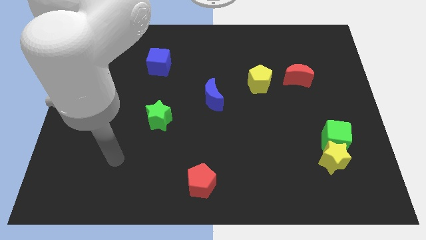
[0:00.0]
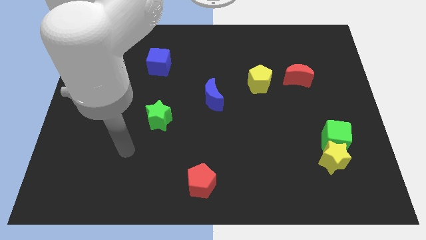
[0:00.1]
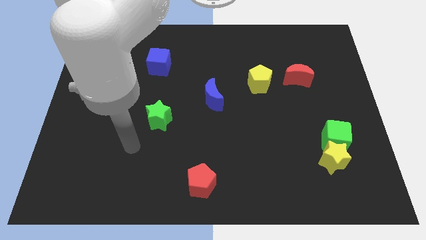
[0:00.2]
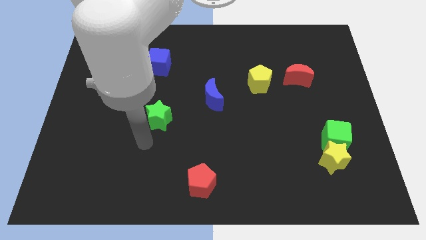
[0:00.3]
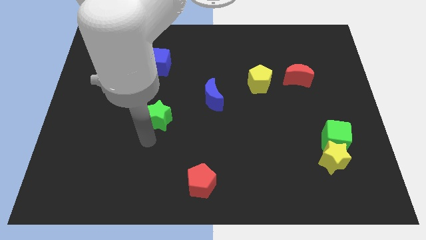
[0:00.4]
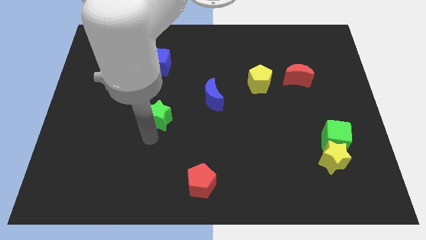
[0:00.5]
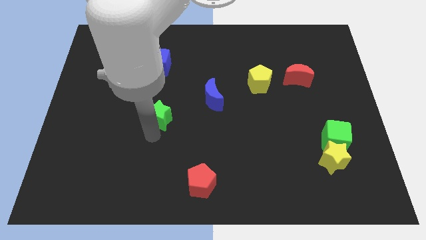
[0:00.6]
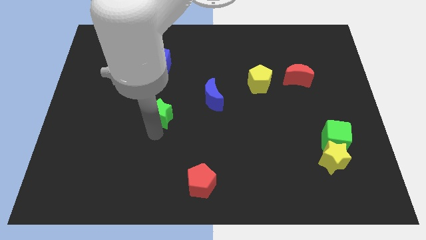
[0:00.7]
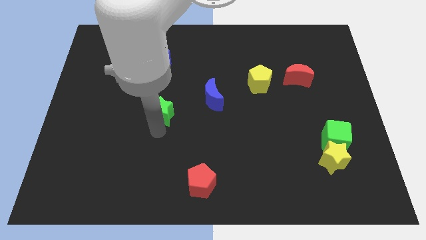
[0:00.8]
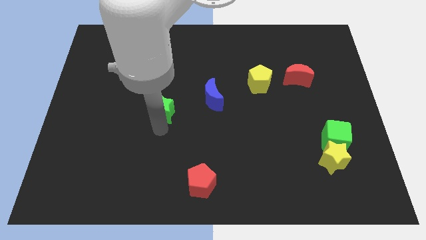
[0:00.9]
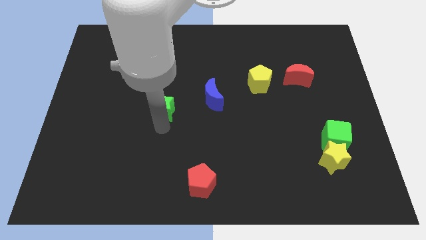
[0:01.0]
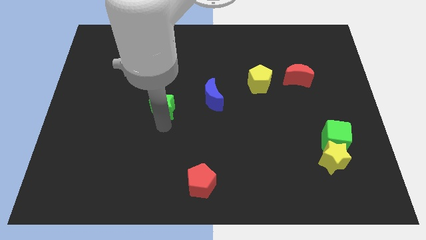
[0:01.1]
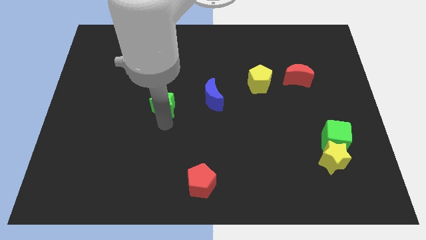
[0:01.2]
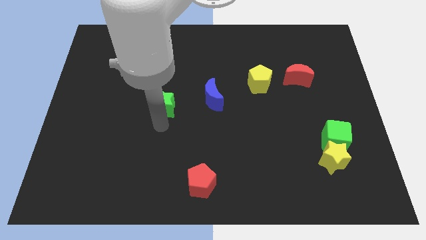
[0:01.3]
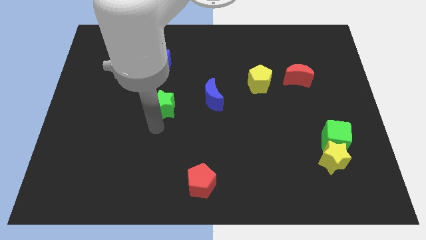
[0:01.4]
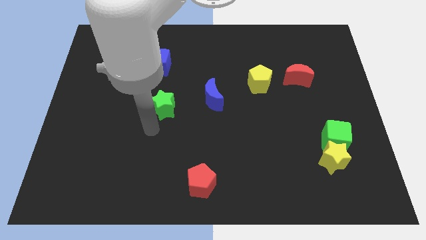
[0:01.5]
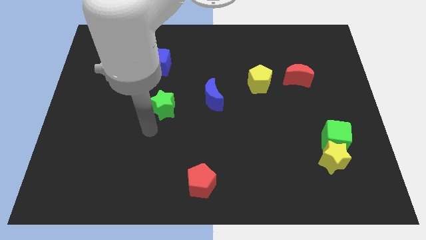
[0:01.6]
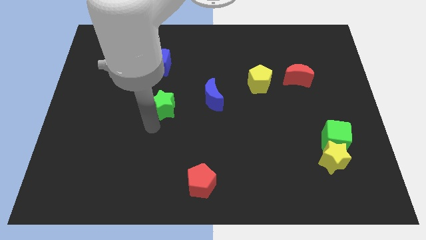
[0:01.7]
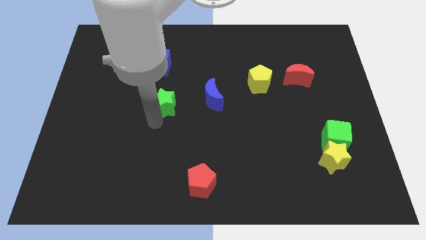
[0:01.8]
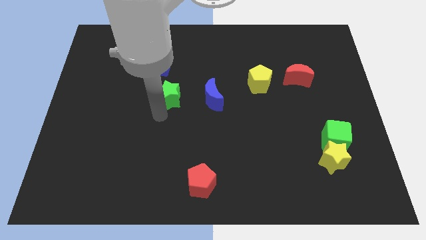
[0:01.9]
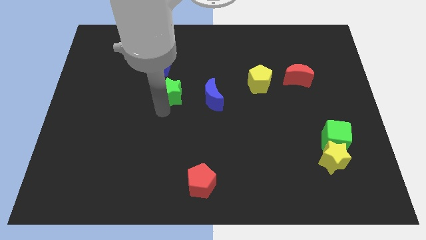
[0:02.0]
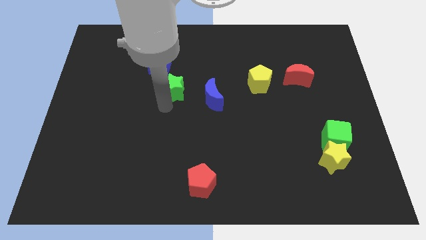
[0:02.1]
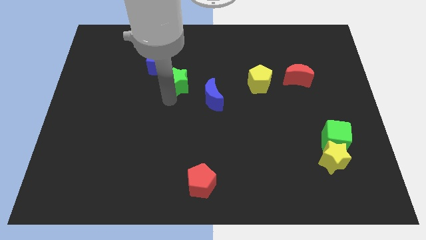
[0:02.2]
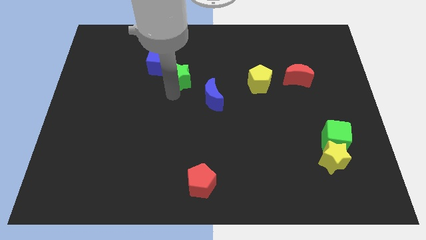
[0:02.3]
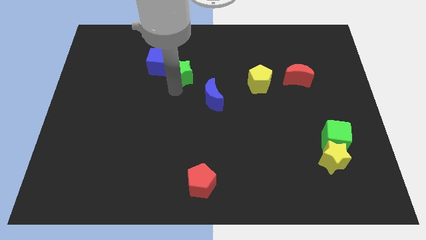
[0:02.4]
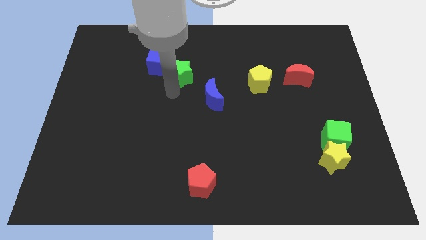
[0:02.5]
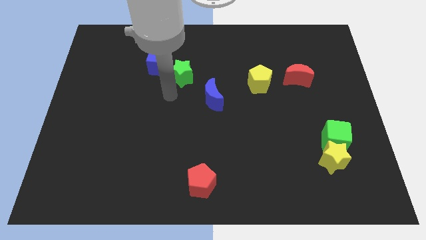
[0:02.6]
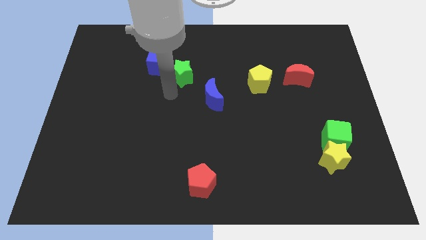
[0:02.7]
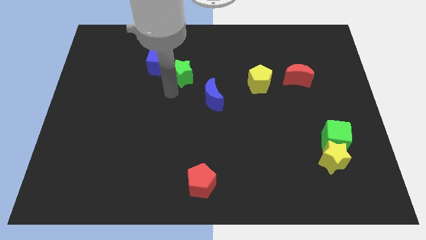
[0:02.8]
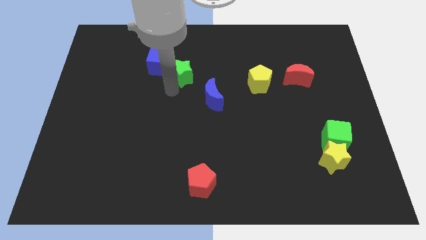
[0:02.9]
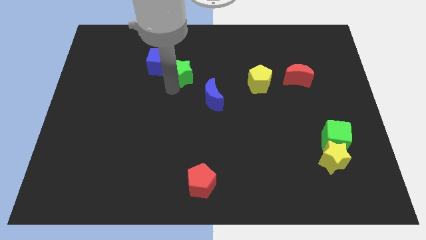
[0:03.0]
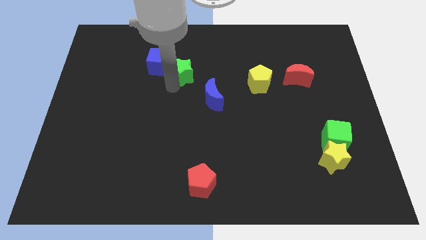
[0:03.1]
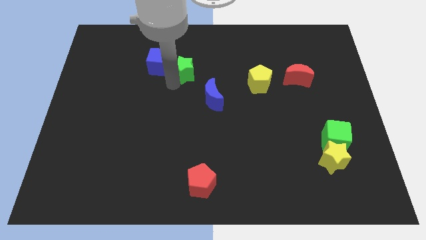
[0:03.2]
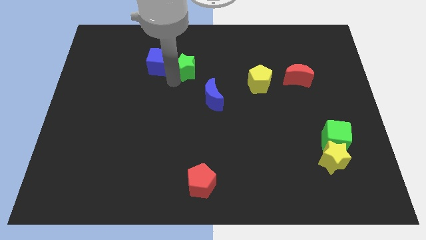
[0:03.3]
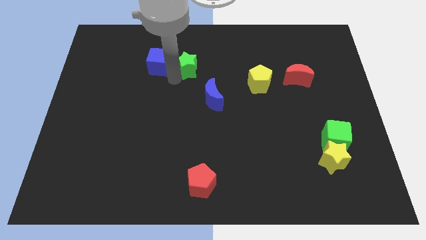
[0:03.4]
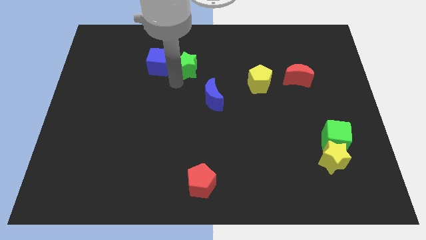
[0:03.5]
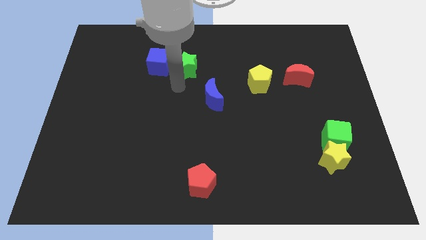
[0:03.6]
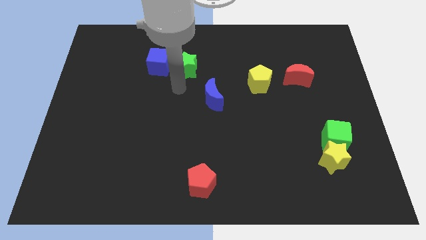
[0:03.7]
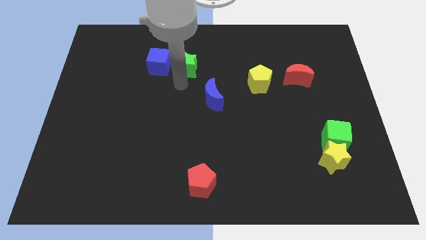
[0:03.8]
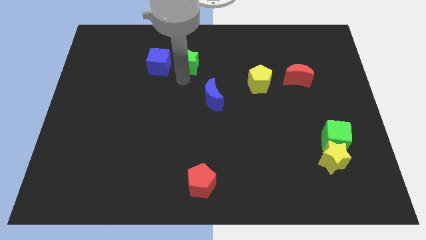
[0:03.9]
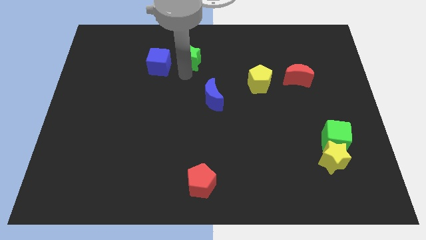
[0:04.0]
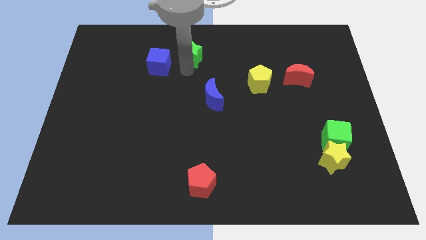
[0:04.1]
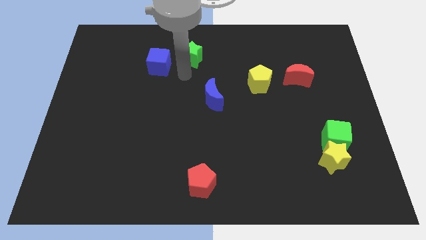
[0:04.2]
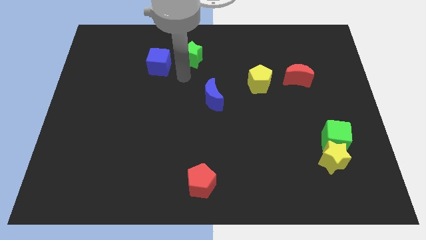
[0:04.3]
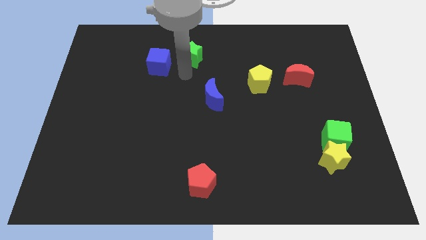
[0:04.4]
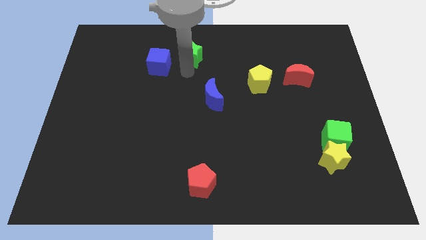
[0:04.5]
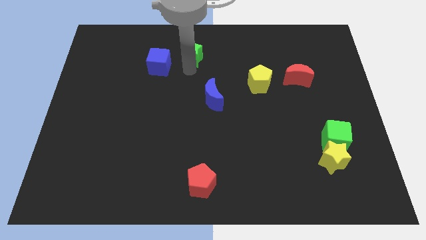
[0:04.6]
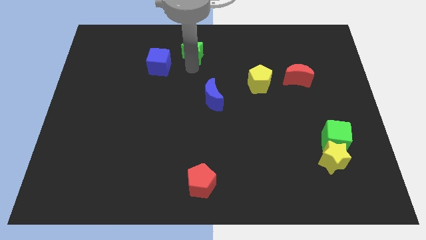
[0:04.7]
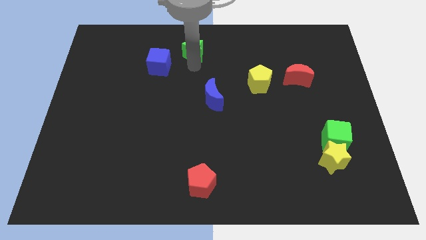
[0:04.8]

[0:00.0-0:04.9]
push the green star to the top side
